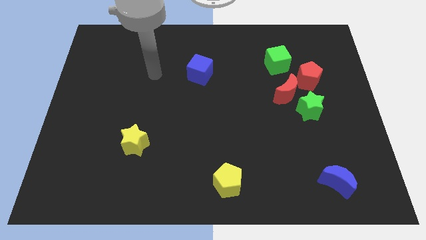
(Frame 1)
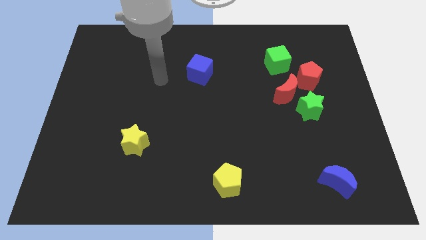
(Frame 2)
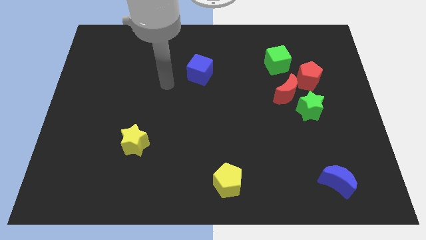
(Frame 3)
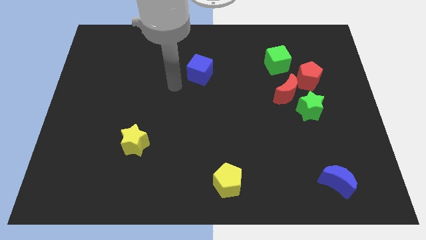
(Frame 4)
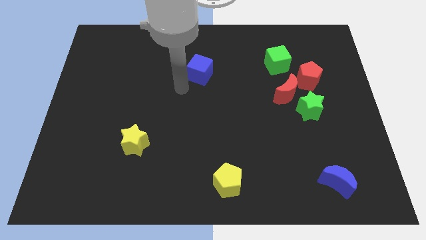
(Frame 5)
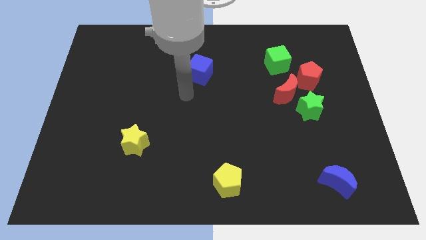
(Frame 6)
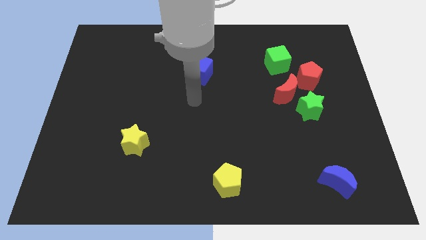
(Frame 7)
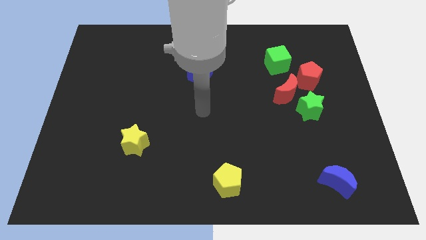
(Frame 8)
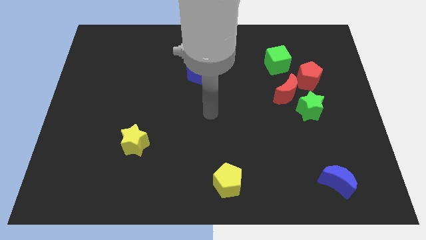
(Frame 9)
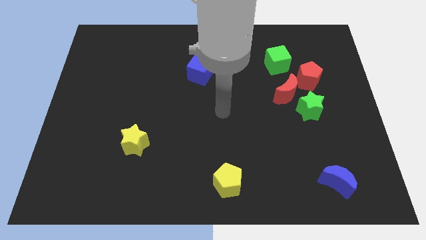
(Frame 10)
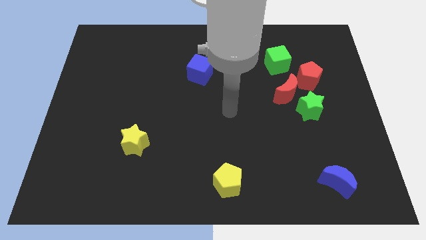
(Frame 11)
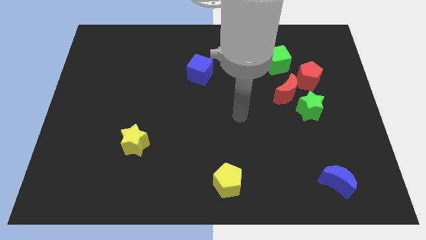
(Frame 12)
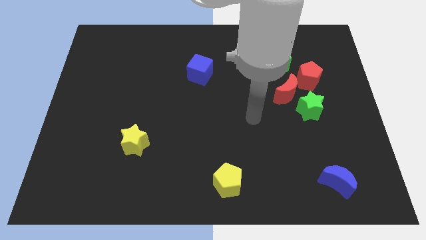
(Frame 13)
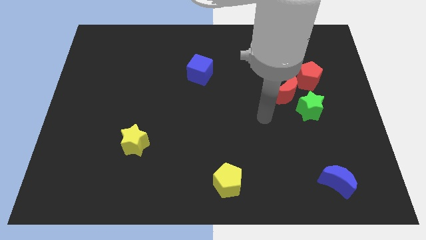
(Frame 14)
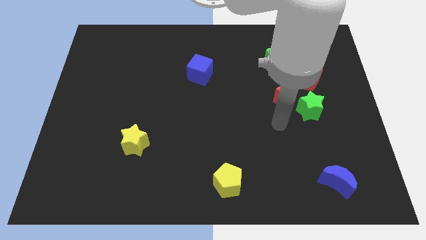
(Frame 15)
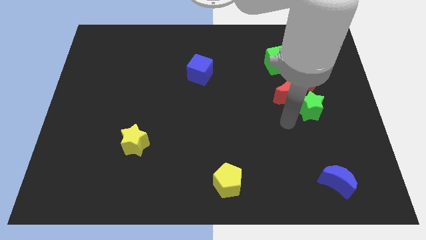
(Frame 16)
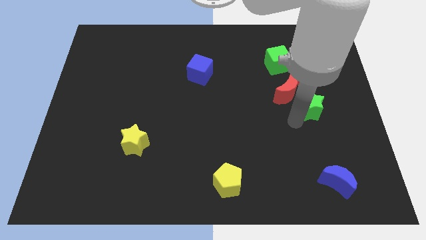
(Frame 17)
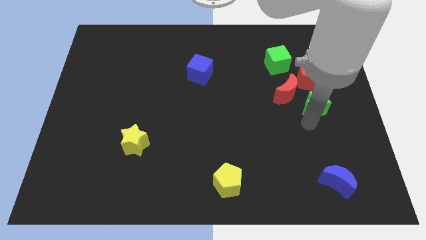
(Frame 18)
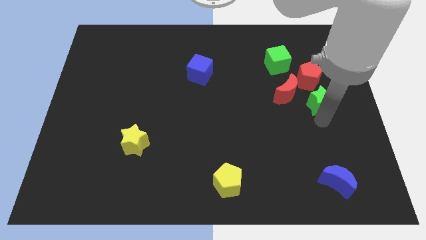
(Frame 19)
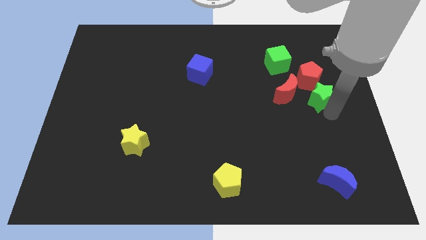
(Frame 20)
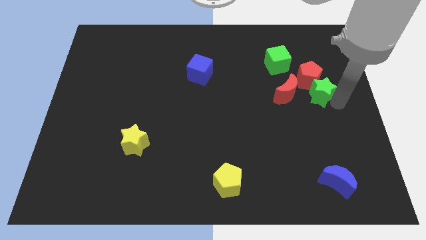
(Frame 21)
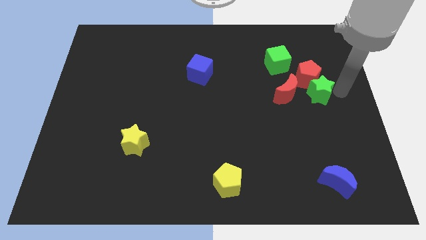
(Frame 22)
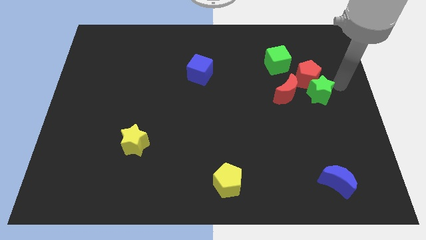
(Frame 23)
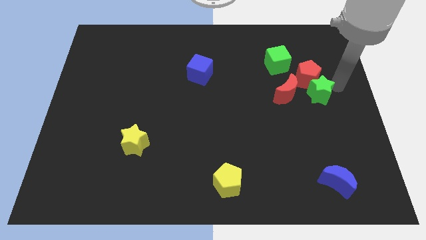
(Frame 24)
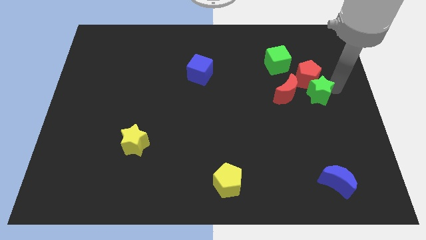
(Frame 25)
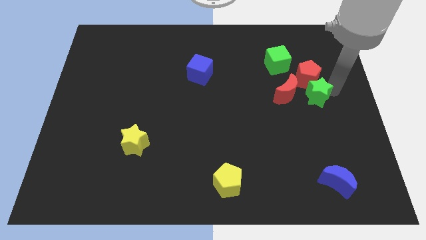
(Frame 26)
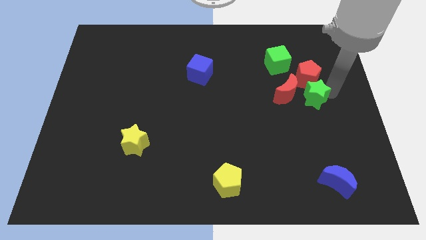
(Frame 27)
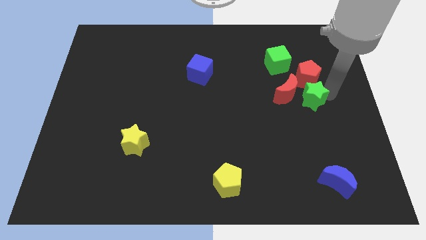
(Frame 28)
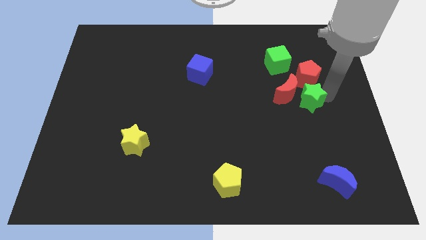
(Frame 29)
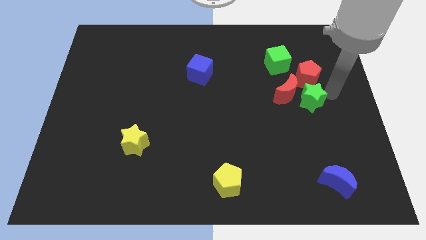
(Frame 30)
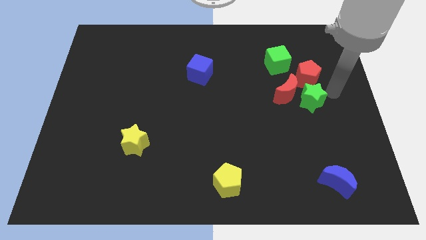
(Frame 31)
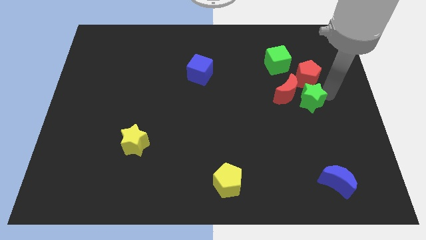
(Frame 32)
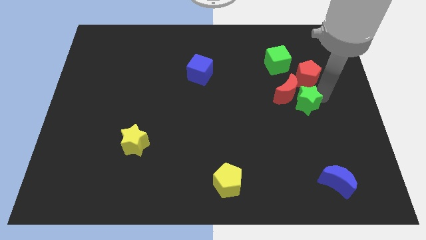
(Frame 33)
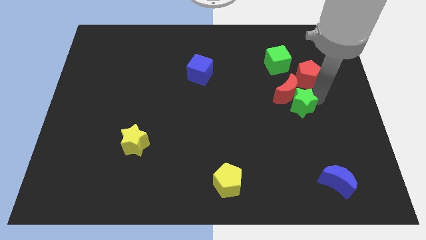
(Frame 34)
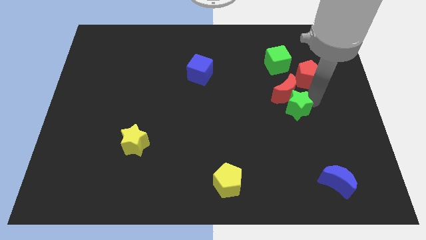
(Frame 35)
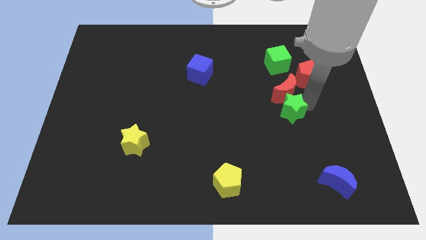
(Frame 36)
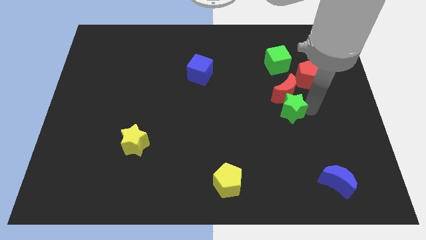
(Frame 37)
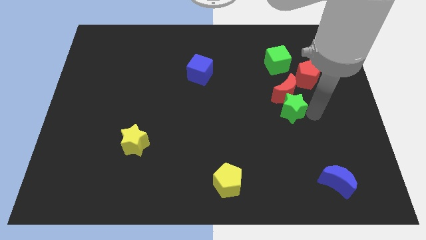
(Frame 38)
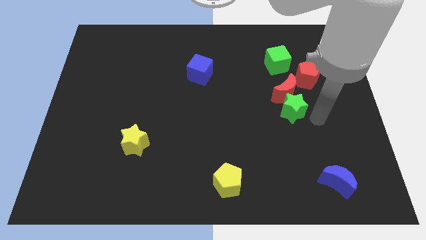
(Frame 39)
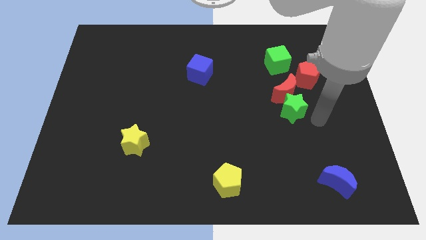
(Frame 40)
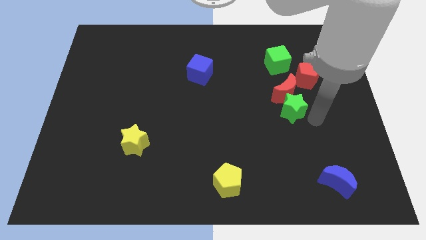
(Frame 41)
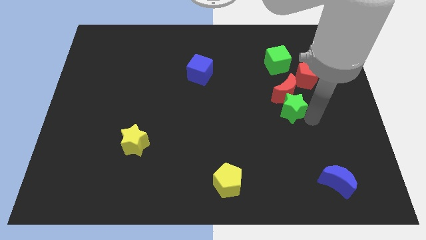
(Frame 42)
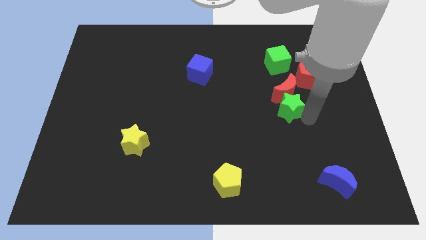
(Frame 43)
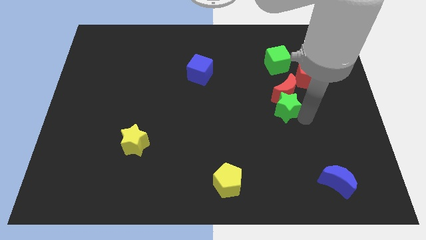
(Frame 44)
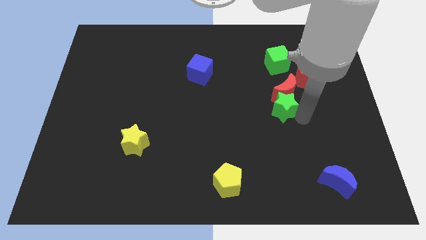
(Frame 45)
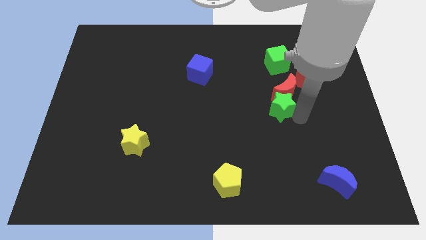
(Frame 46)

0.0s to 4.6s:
push the green star a little bit to the left

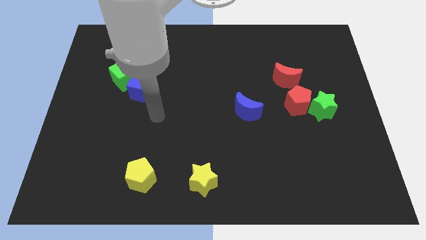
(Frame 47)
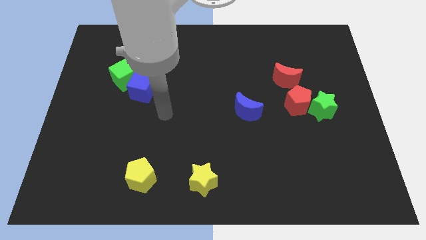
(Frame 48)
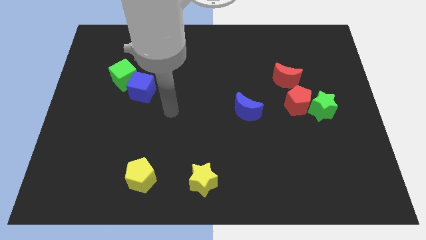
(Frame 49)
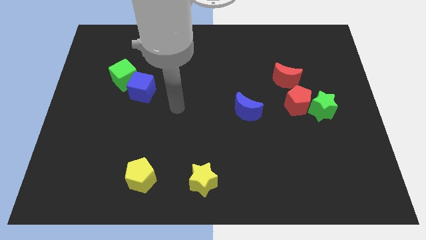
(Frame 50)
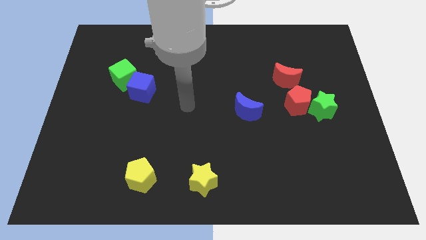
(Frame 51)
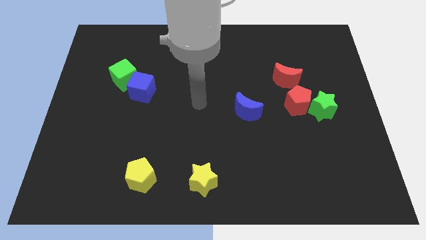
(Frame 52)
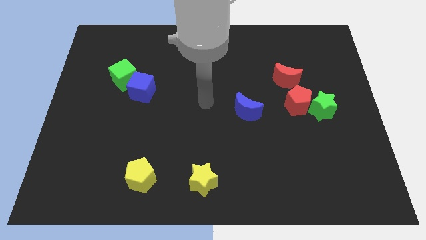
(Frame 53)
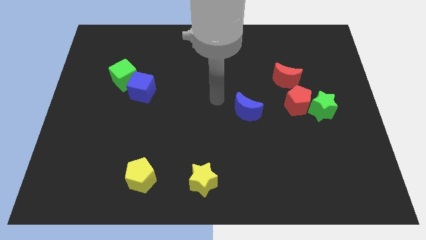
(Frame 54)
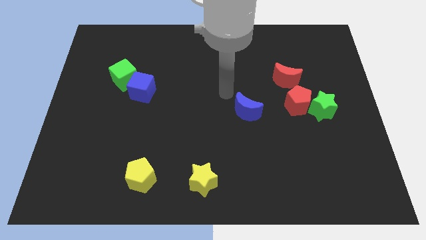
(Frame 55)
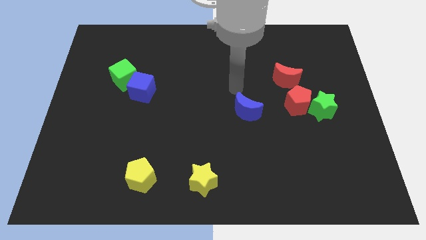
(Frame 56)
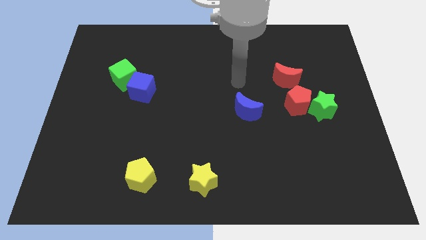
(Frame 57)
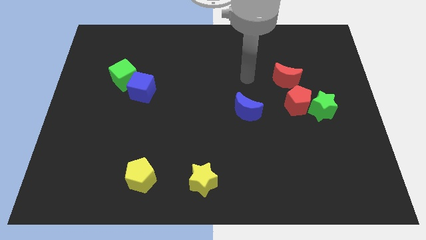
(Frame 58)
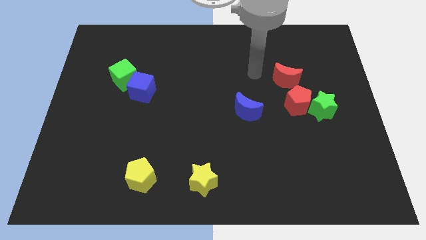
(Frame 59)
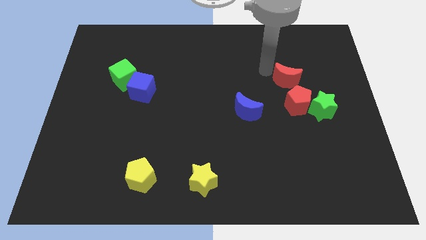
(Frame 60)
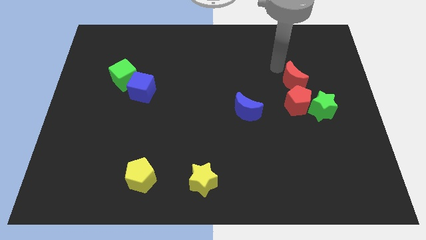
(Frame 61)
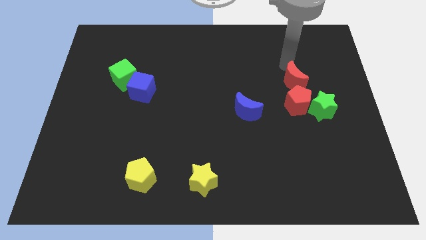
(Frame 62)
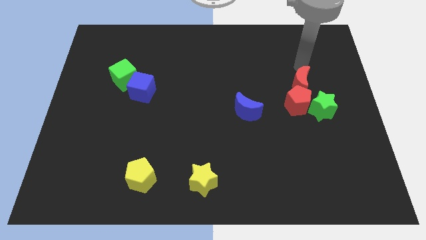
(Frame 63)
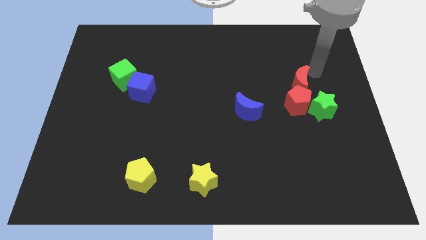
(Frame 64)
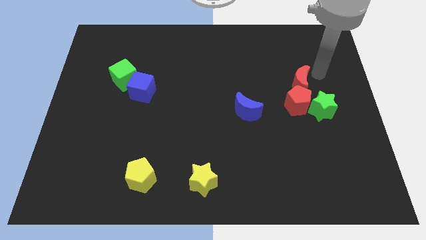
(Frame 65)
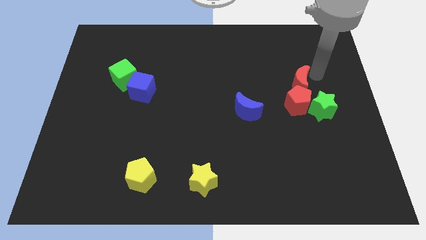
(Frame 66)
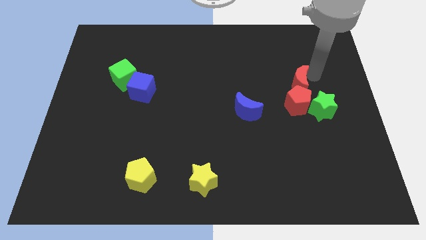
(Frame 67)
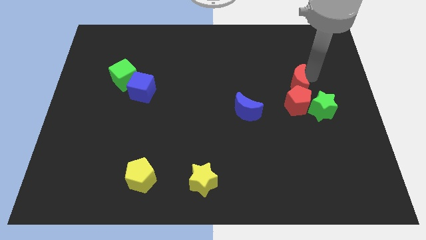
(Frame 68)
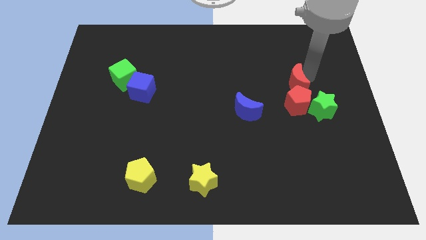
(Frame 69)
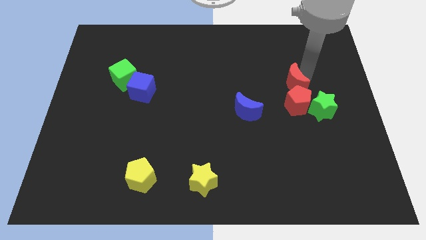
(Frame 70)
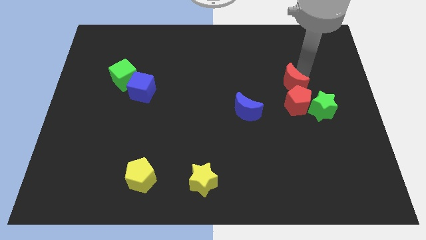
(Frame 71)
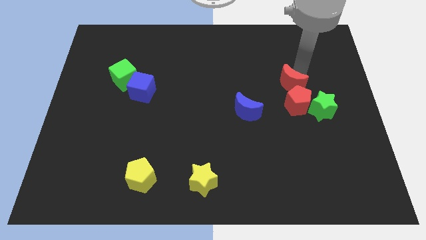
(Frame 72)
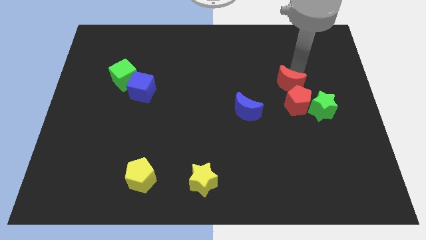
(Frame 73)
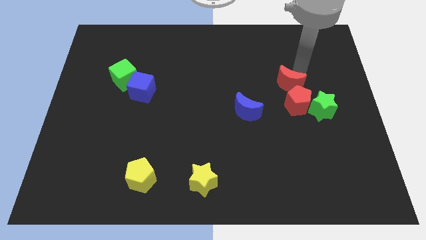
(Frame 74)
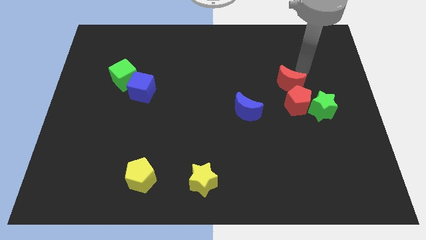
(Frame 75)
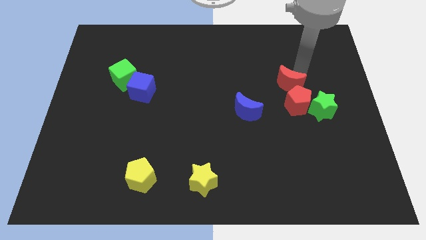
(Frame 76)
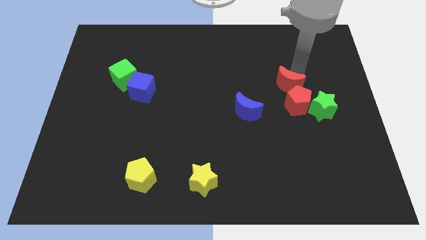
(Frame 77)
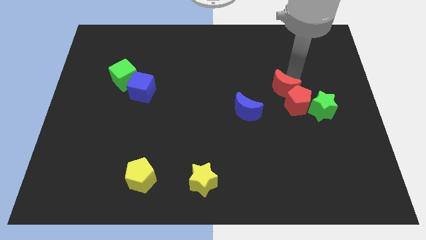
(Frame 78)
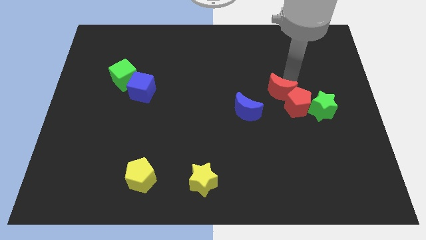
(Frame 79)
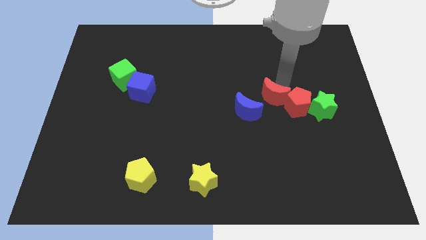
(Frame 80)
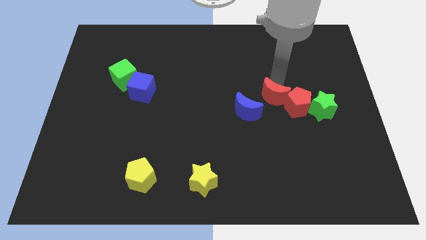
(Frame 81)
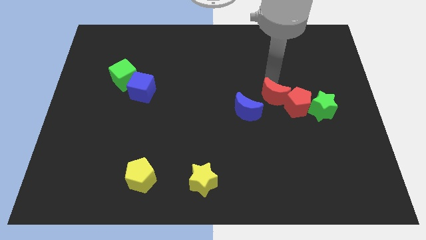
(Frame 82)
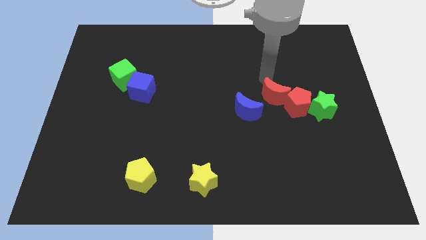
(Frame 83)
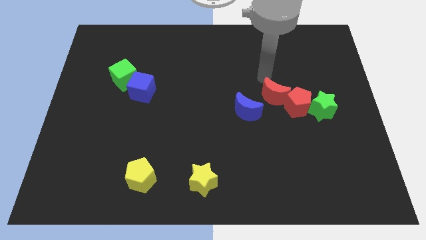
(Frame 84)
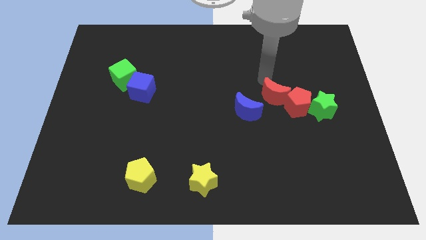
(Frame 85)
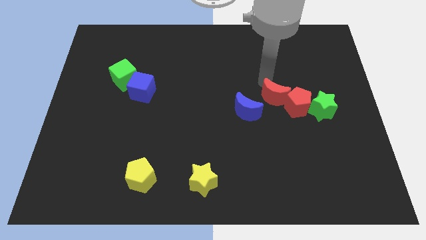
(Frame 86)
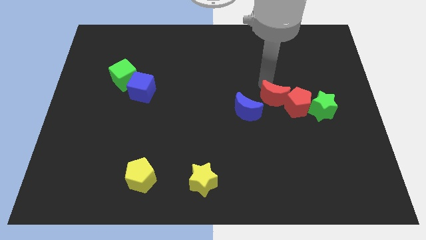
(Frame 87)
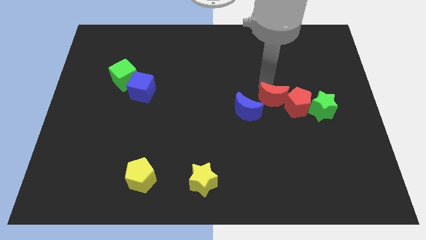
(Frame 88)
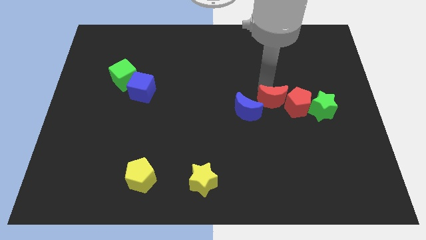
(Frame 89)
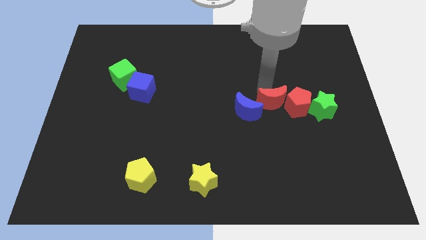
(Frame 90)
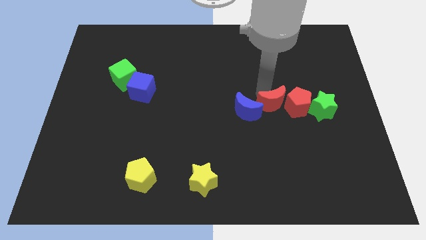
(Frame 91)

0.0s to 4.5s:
push the red moon down a little
